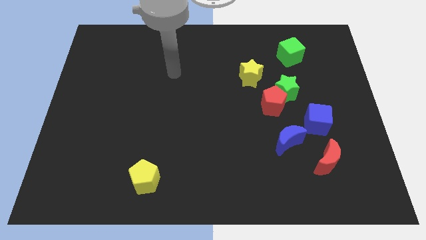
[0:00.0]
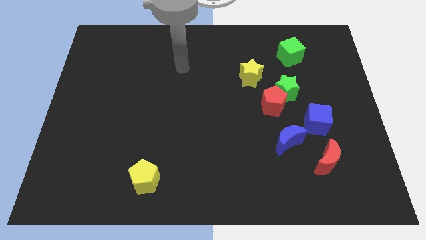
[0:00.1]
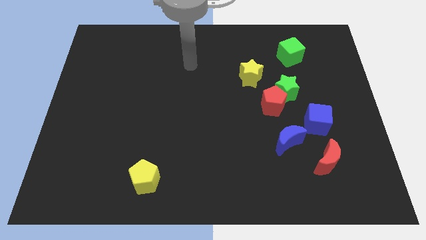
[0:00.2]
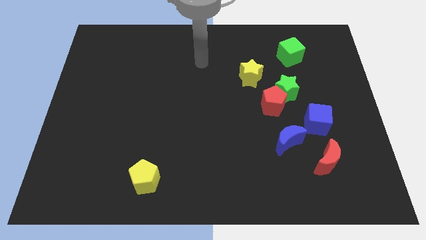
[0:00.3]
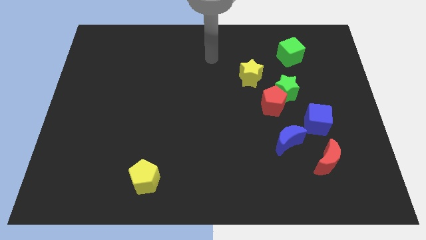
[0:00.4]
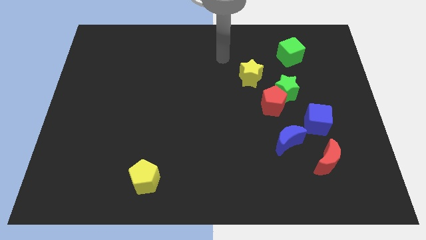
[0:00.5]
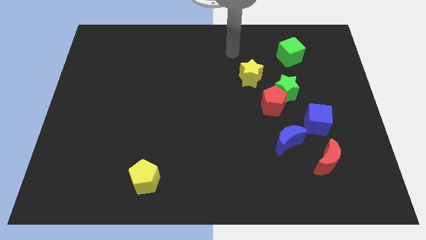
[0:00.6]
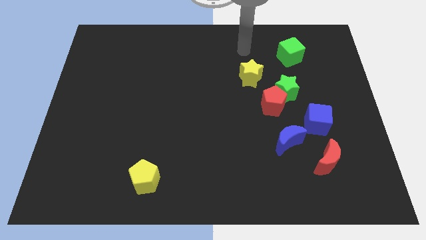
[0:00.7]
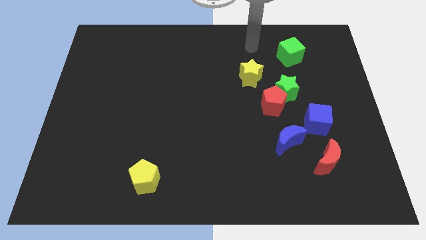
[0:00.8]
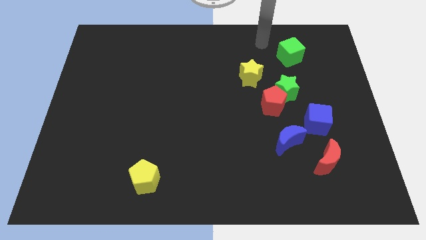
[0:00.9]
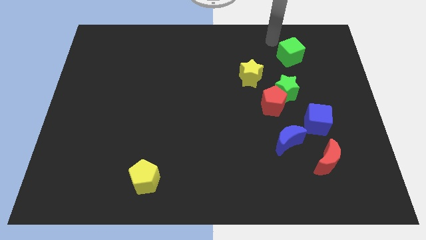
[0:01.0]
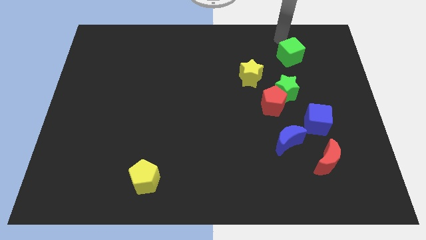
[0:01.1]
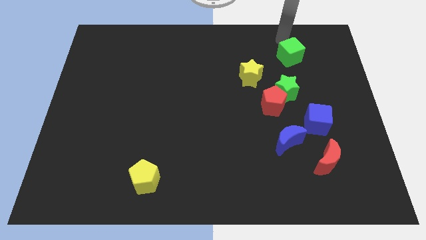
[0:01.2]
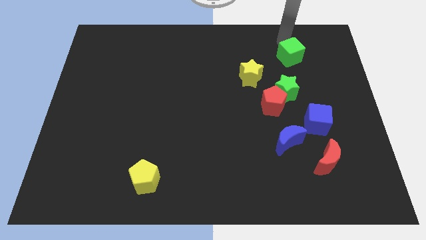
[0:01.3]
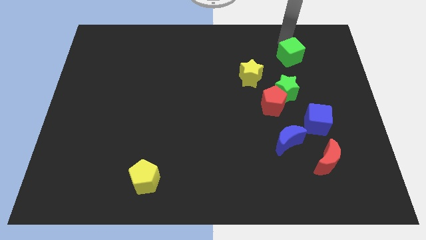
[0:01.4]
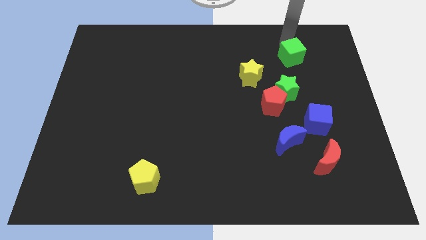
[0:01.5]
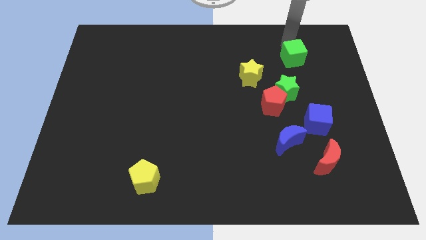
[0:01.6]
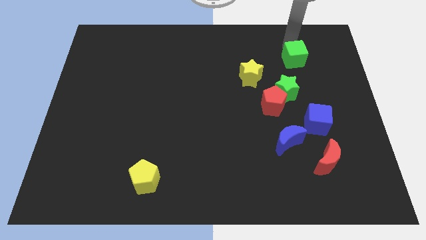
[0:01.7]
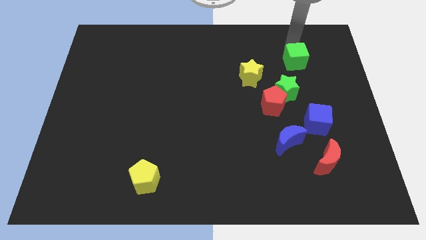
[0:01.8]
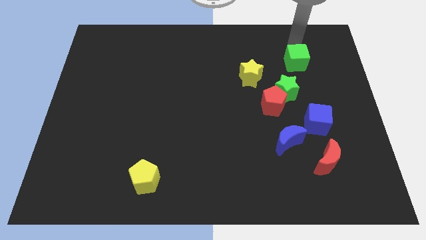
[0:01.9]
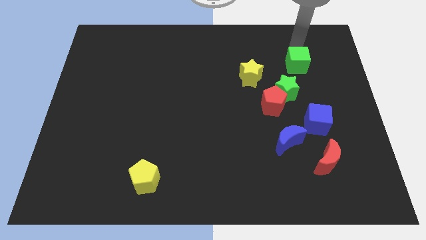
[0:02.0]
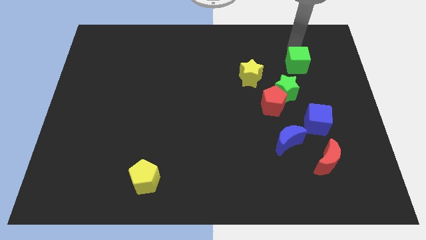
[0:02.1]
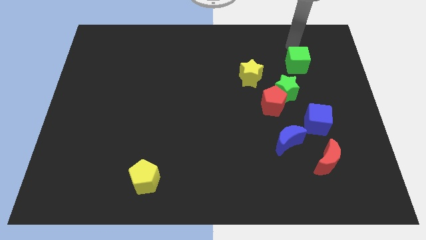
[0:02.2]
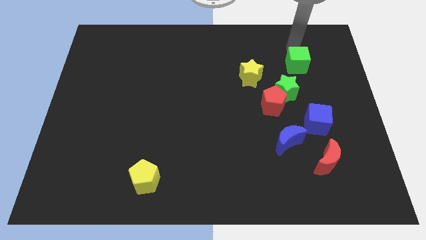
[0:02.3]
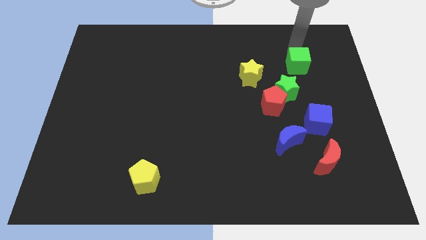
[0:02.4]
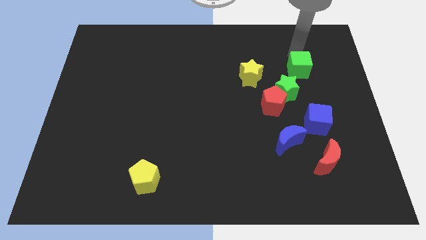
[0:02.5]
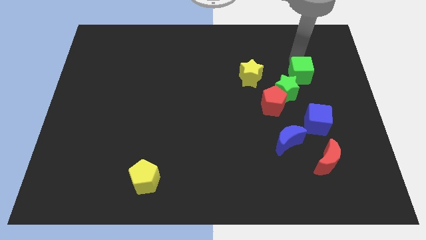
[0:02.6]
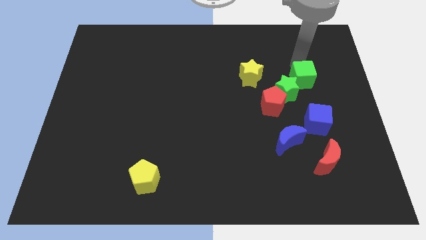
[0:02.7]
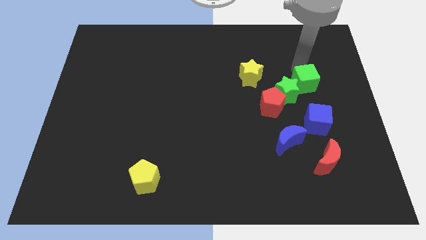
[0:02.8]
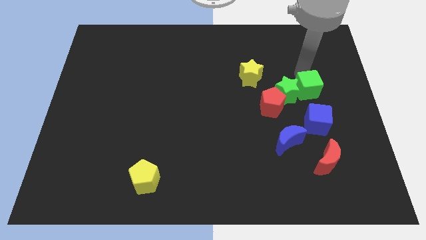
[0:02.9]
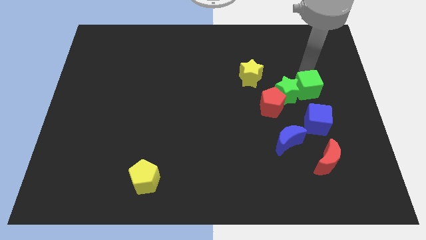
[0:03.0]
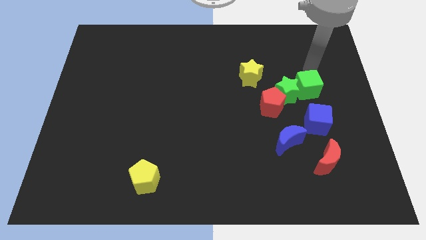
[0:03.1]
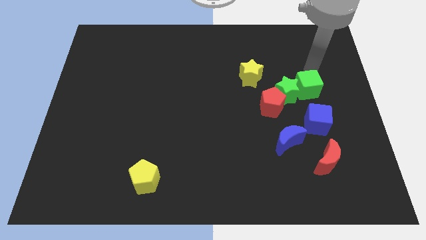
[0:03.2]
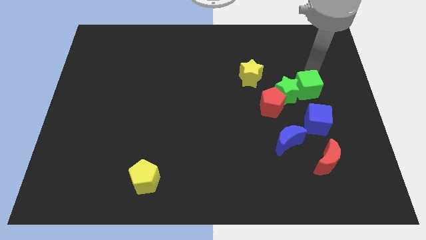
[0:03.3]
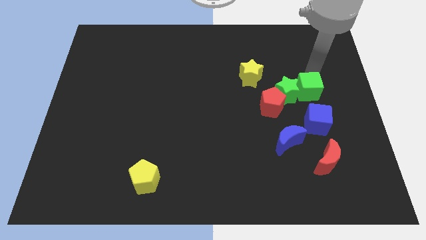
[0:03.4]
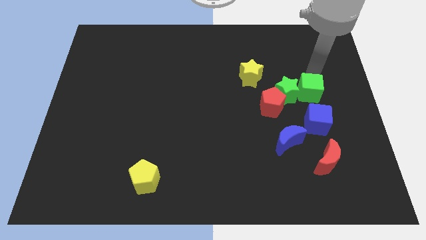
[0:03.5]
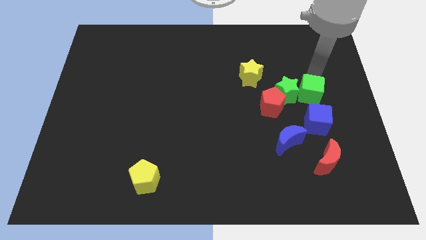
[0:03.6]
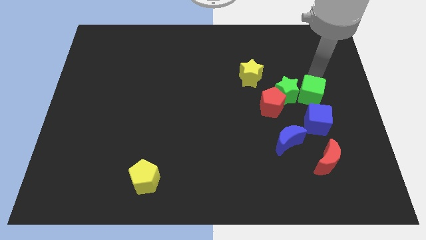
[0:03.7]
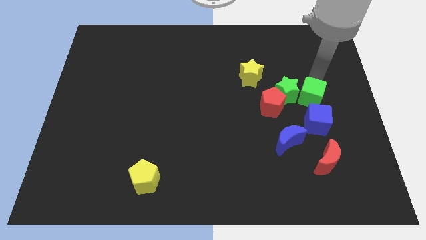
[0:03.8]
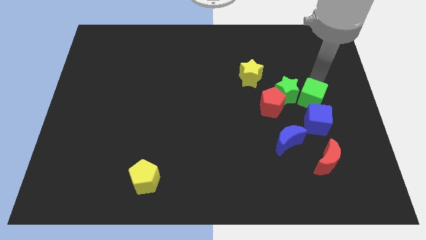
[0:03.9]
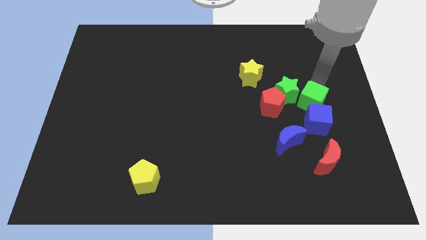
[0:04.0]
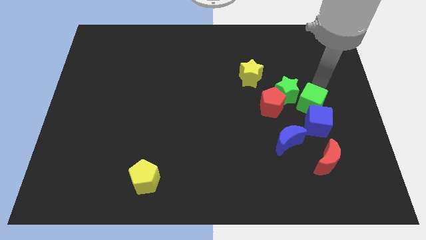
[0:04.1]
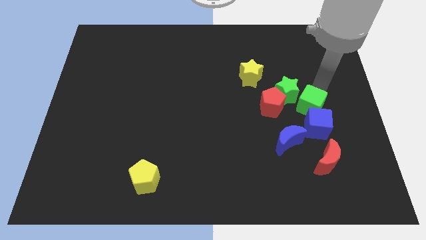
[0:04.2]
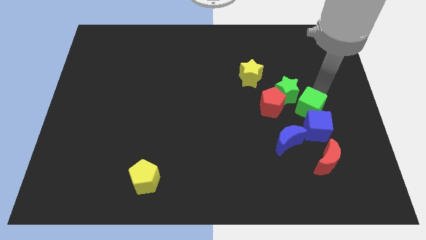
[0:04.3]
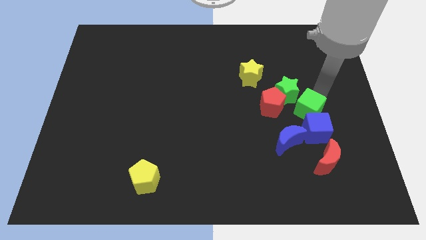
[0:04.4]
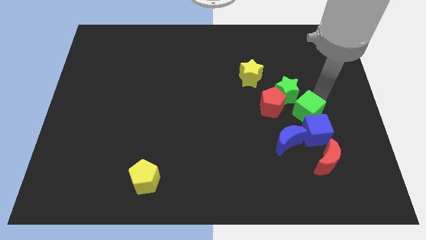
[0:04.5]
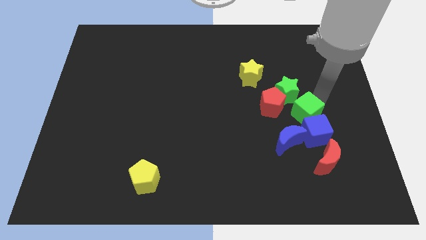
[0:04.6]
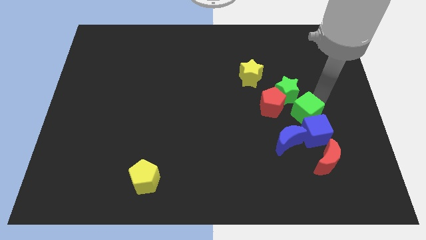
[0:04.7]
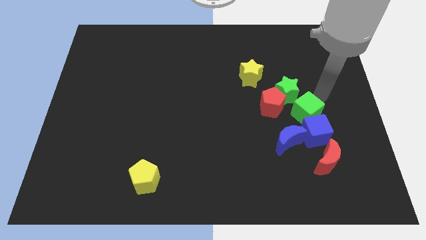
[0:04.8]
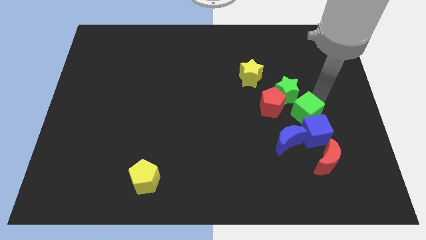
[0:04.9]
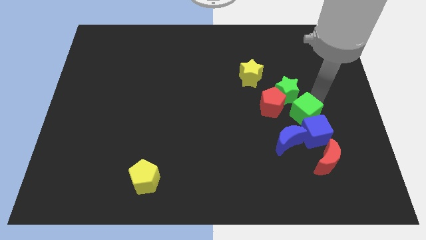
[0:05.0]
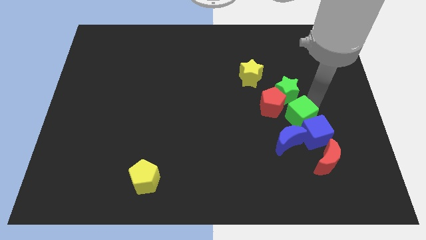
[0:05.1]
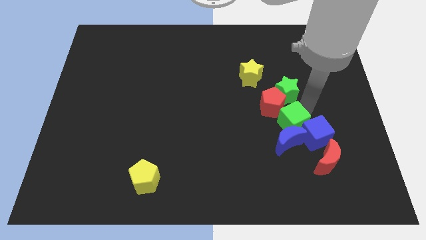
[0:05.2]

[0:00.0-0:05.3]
push the green cube next to the blue moon

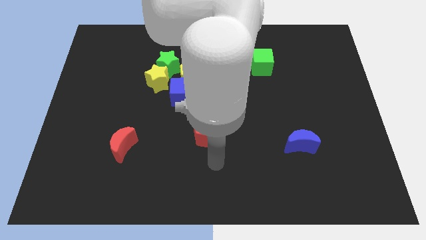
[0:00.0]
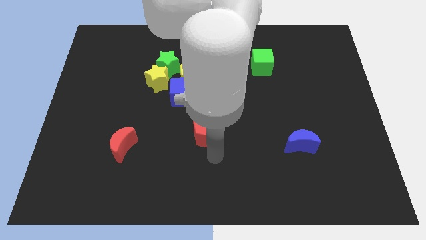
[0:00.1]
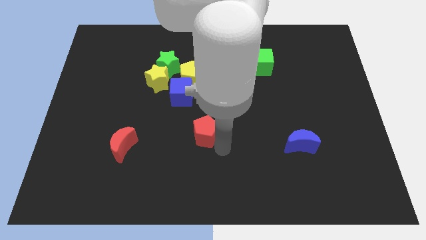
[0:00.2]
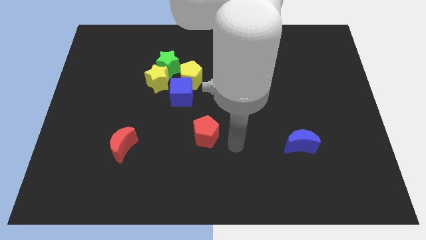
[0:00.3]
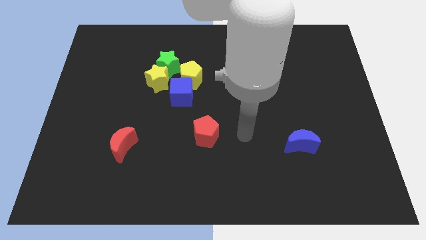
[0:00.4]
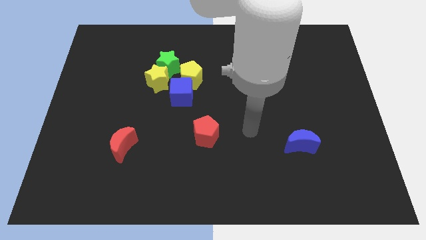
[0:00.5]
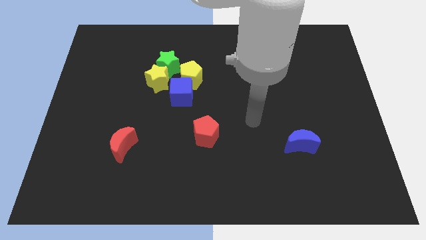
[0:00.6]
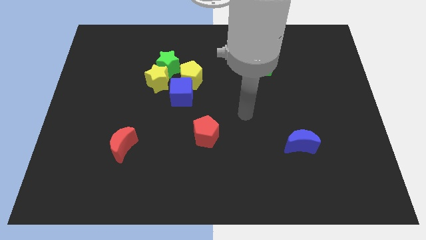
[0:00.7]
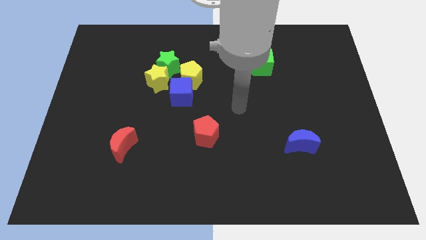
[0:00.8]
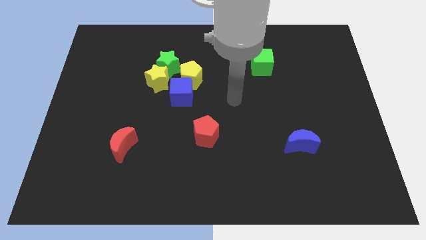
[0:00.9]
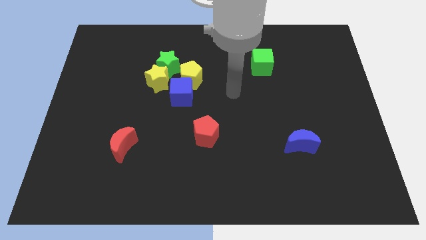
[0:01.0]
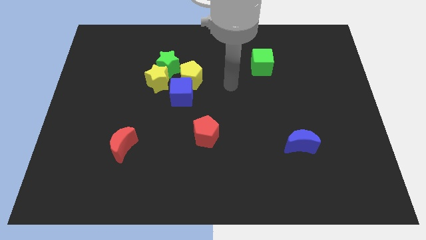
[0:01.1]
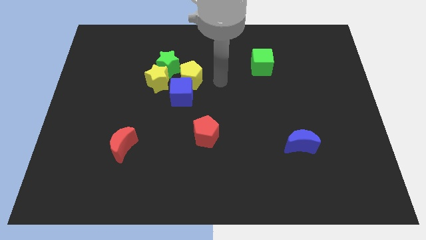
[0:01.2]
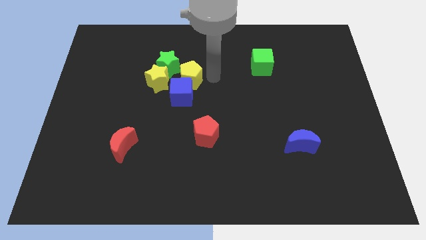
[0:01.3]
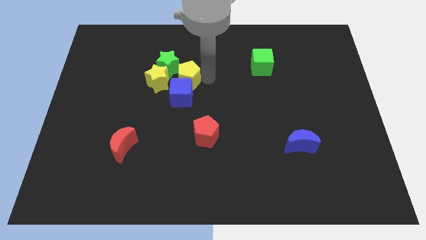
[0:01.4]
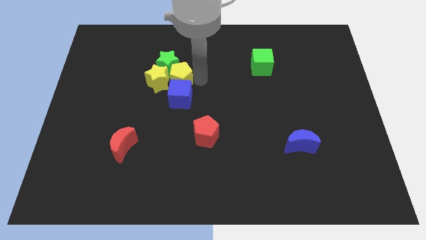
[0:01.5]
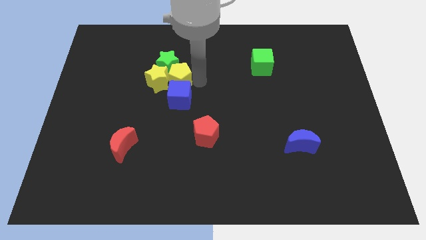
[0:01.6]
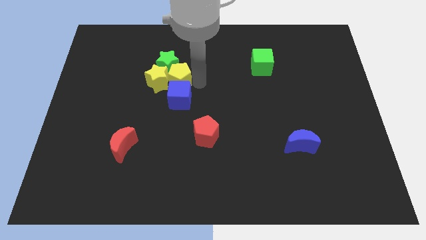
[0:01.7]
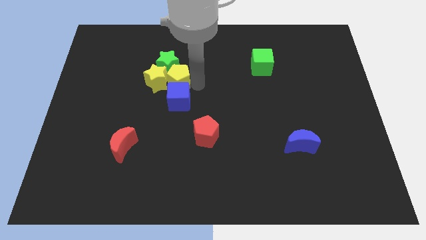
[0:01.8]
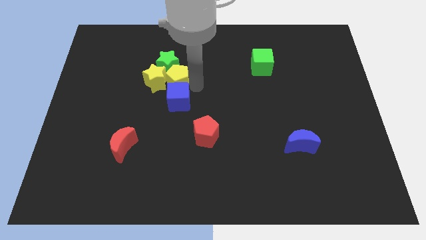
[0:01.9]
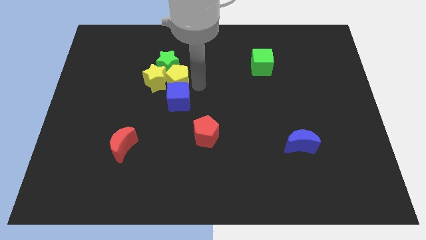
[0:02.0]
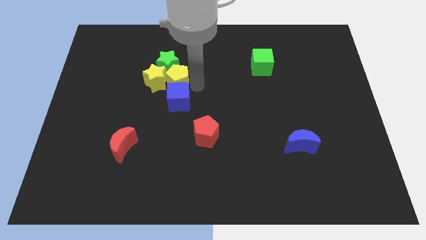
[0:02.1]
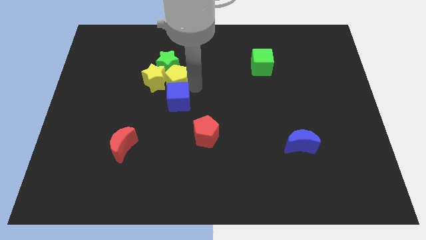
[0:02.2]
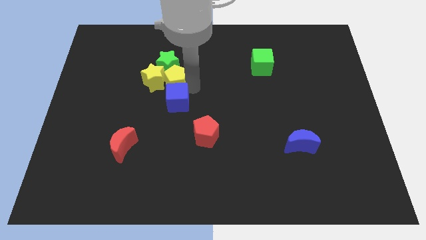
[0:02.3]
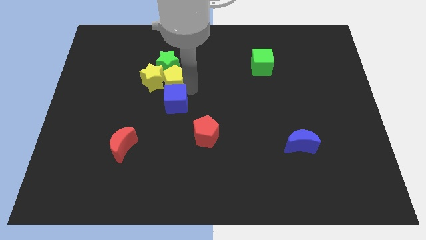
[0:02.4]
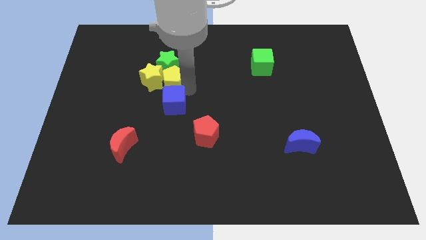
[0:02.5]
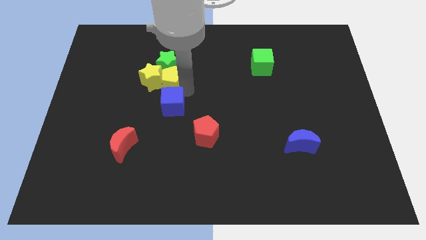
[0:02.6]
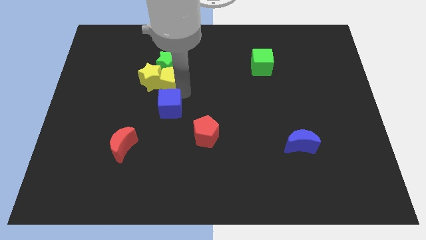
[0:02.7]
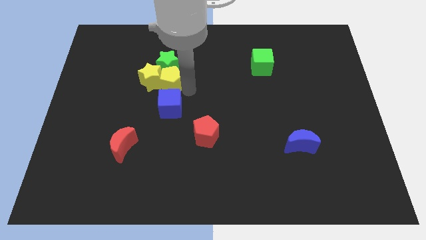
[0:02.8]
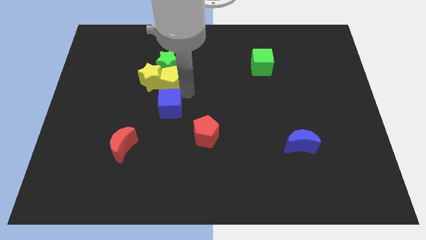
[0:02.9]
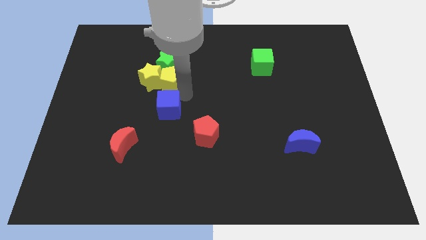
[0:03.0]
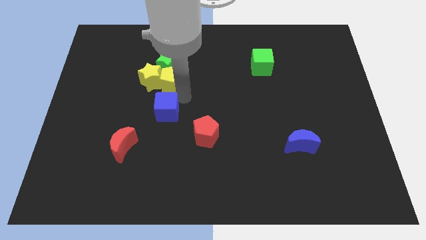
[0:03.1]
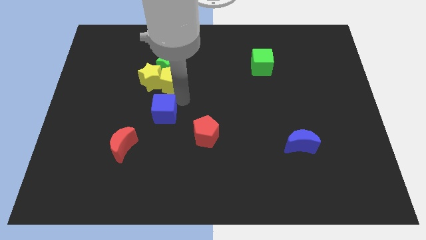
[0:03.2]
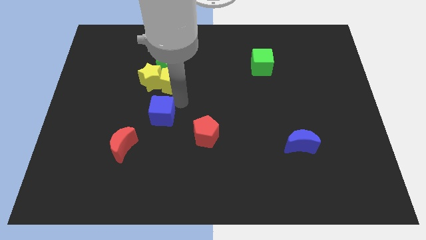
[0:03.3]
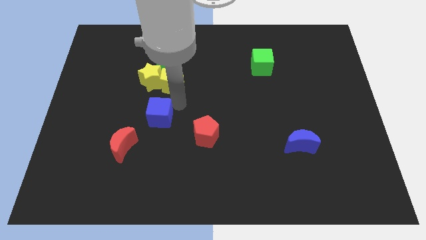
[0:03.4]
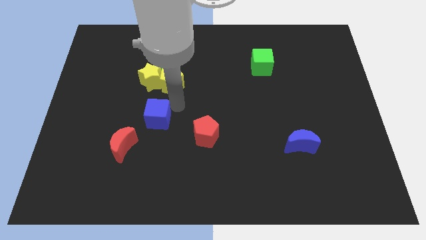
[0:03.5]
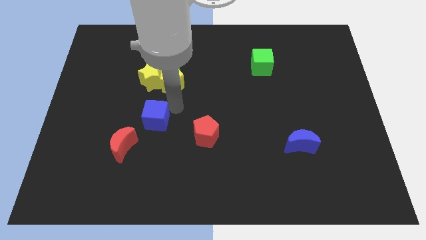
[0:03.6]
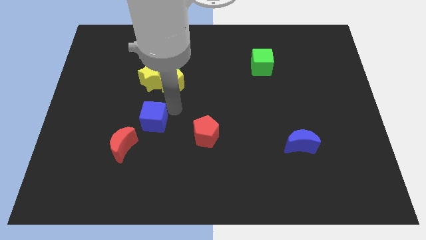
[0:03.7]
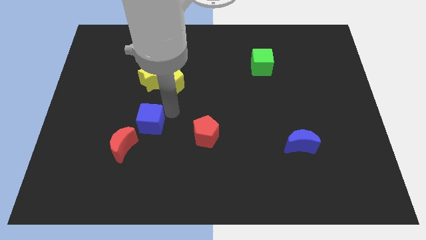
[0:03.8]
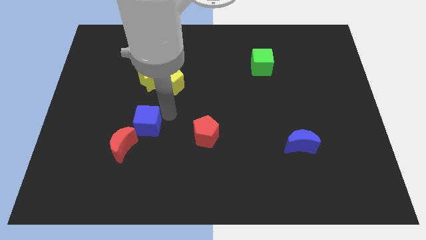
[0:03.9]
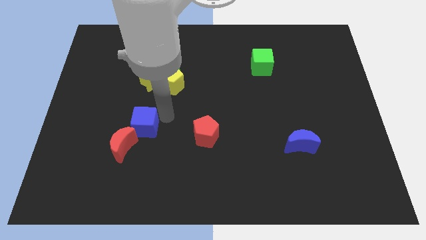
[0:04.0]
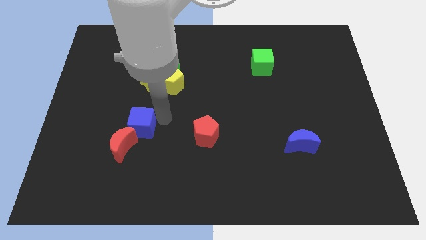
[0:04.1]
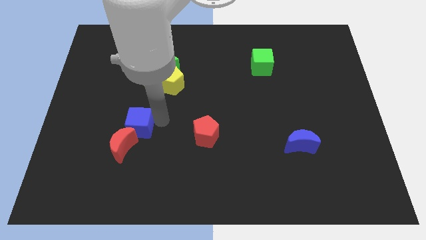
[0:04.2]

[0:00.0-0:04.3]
move the blue cube next to the red moon
